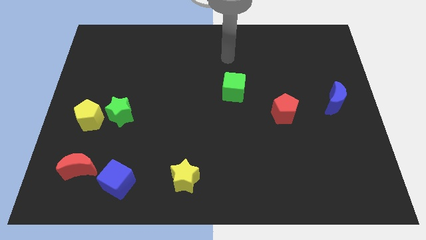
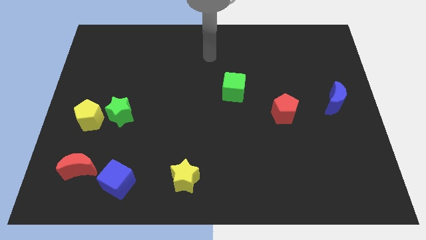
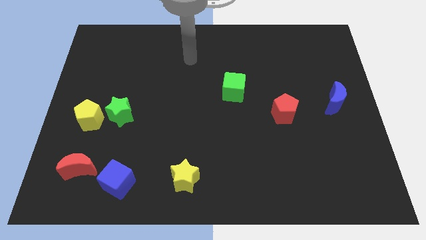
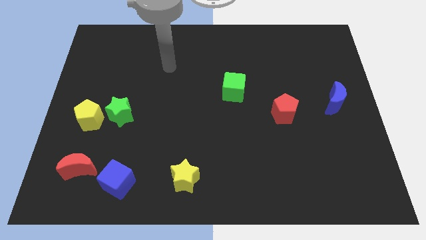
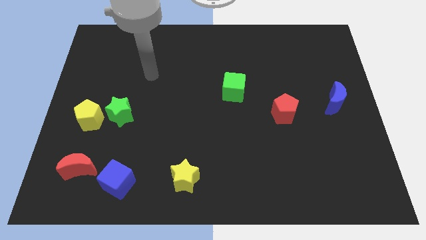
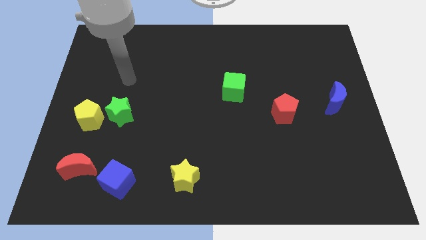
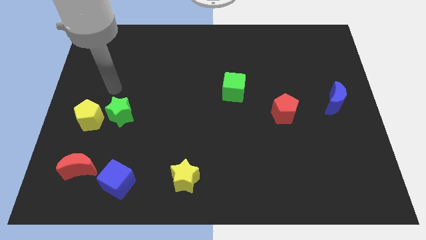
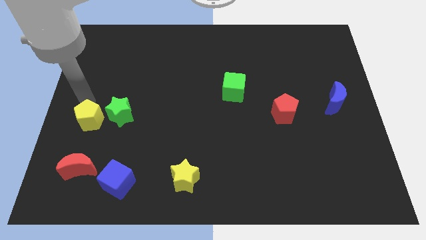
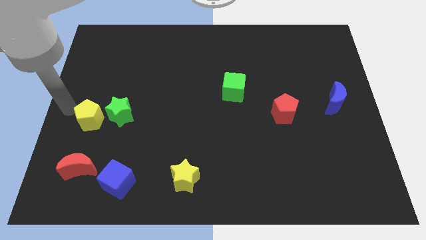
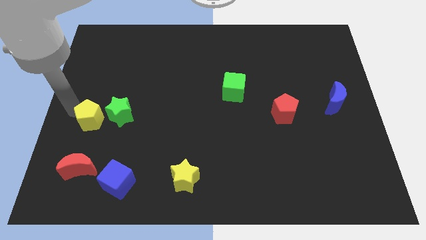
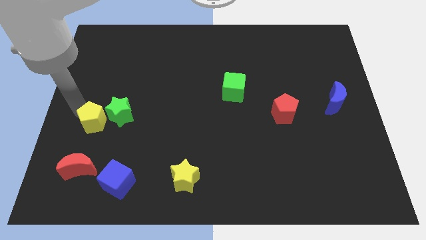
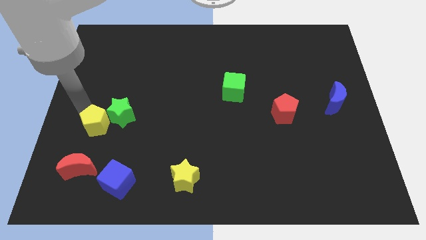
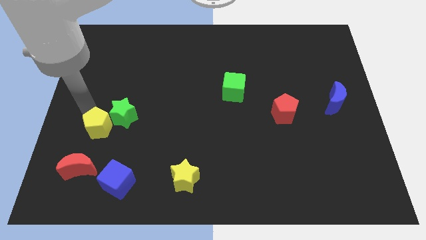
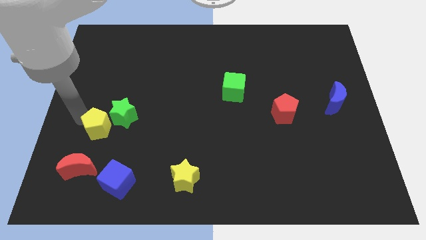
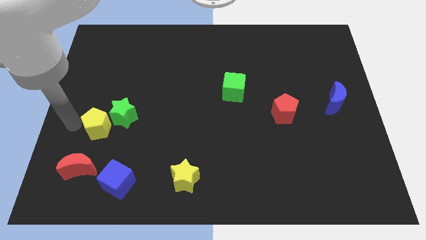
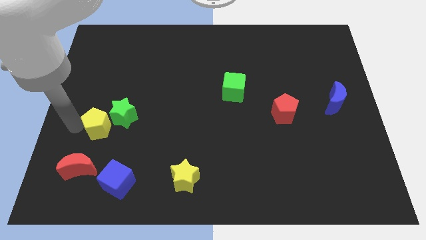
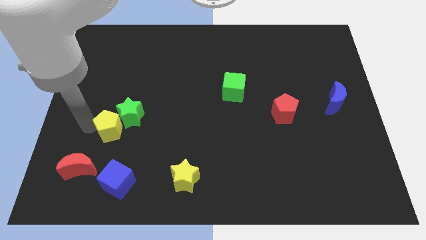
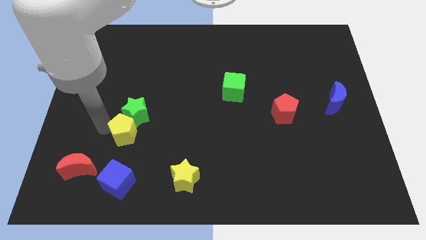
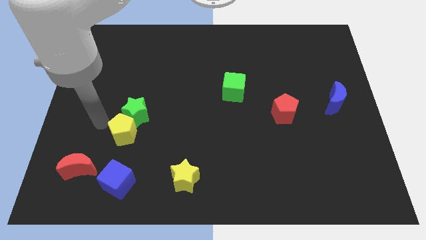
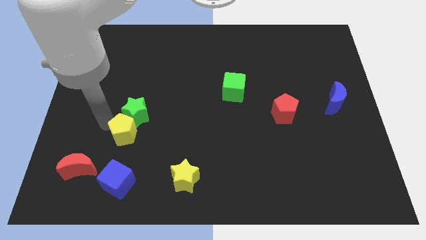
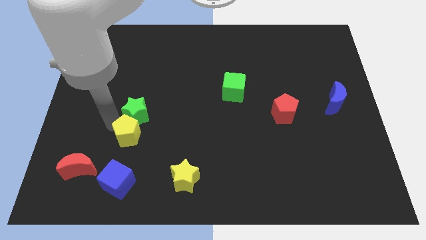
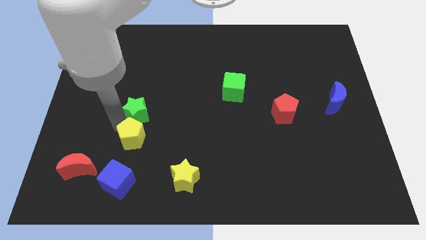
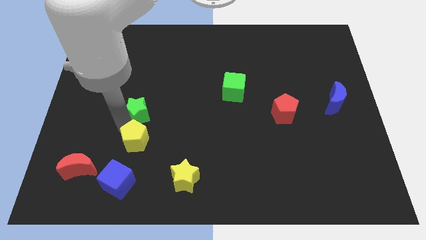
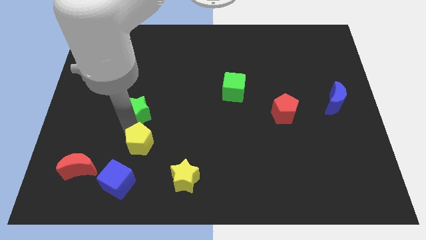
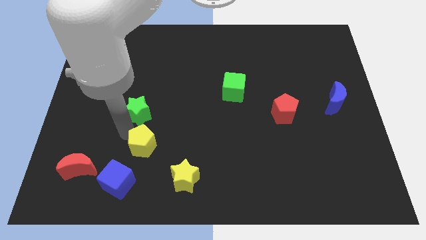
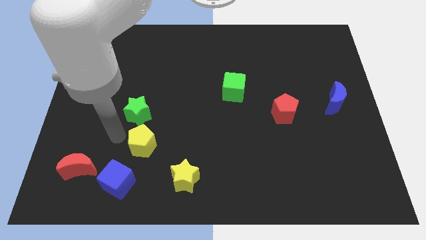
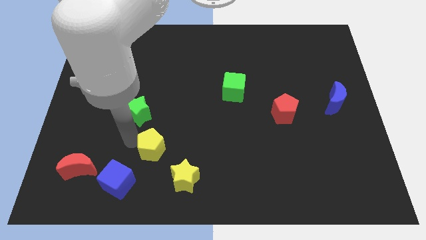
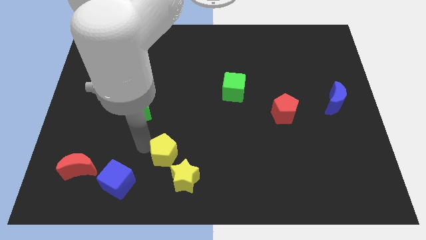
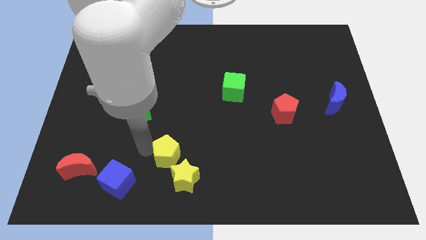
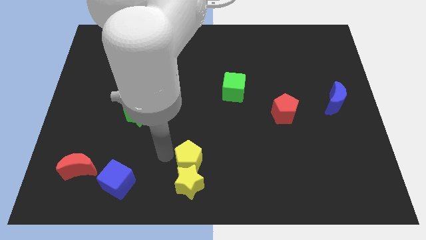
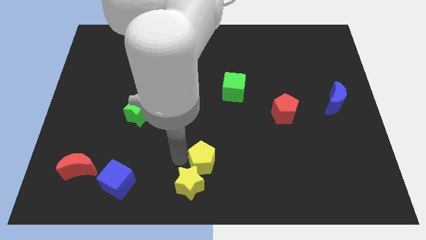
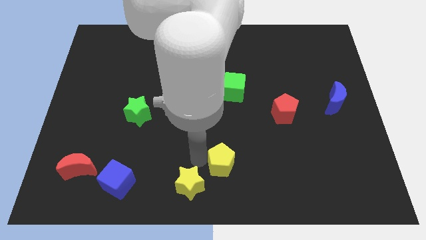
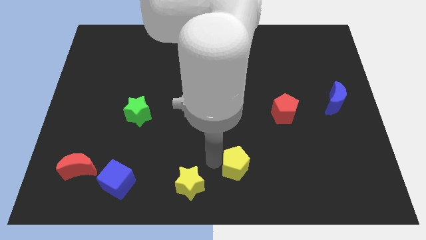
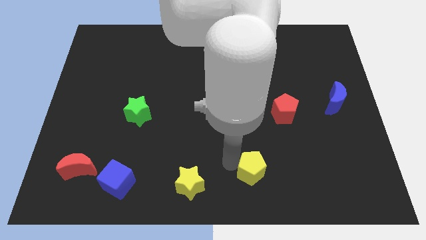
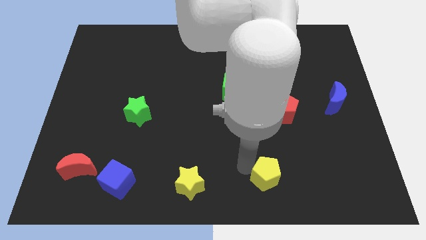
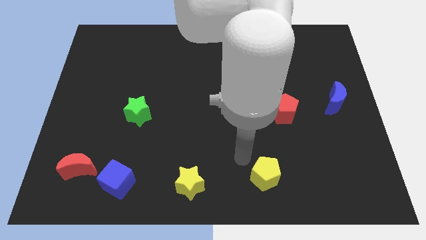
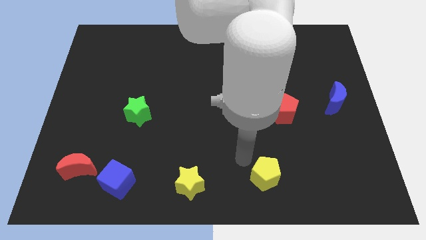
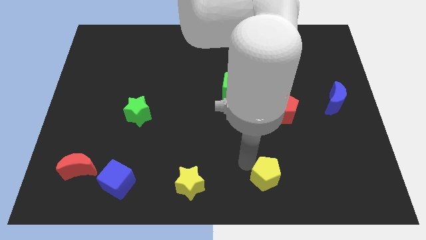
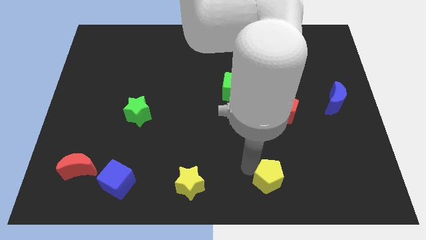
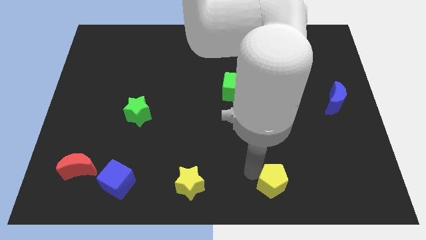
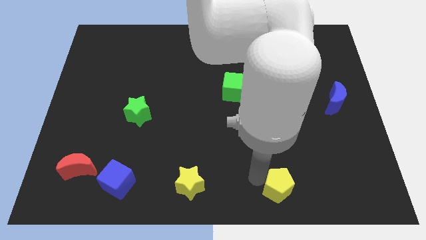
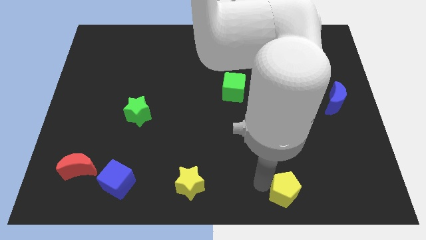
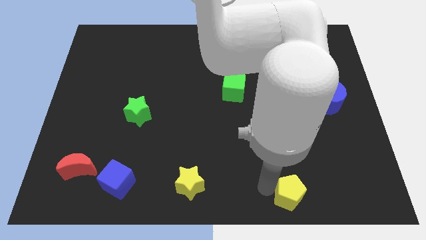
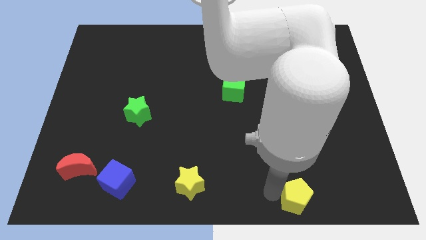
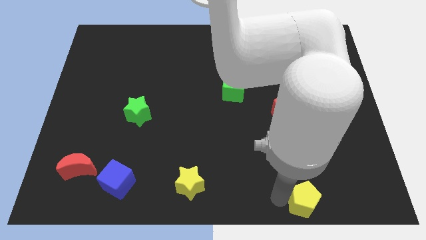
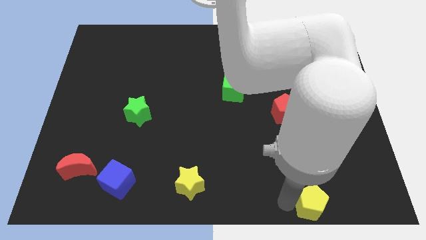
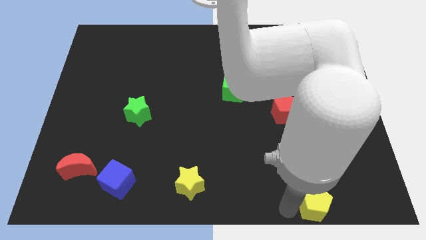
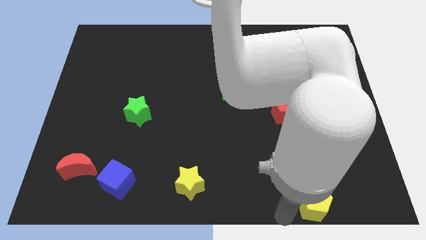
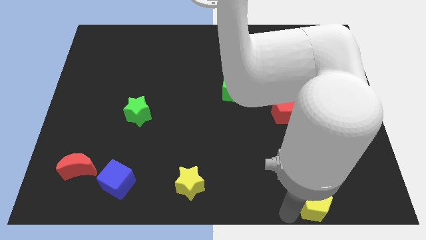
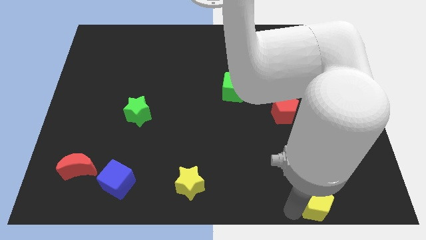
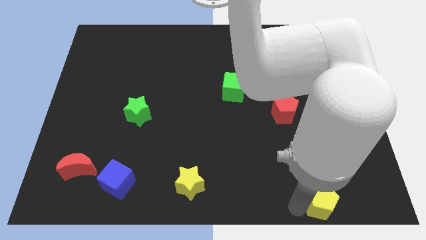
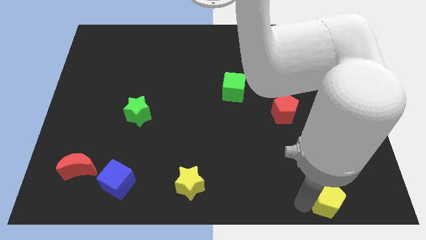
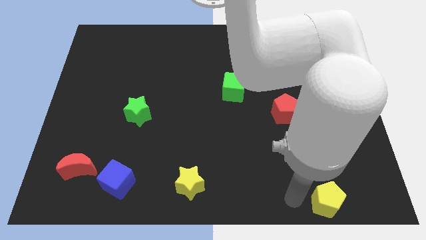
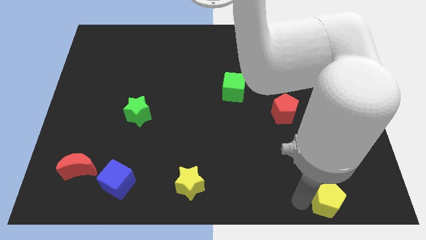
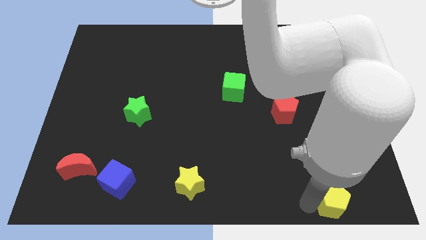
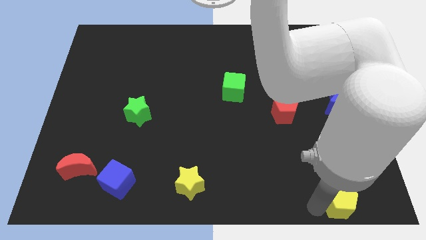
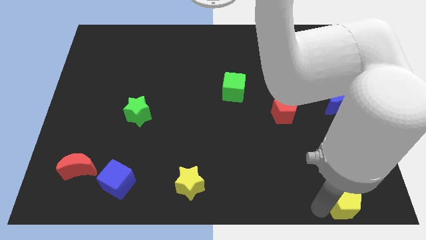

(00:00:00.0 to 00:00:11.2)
slide the yellow pentagon to the lower right corner

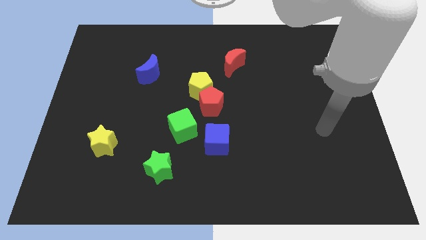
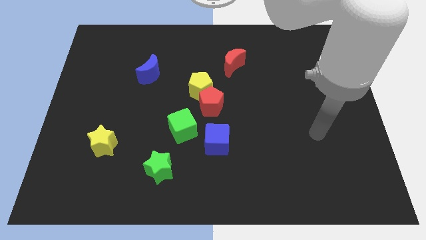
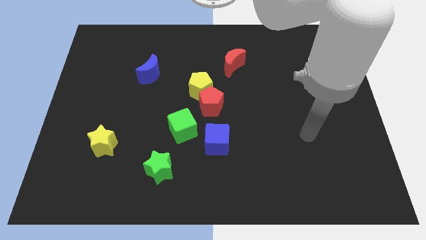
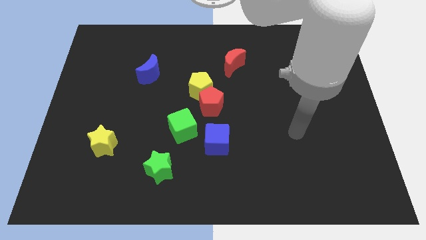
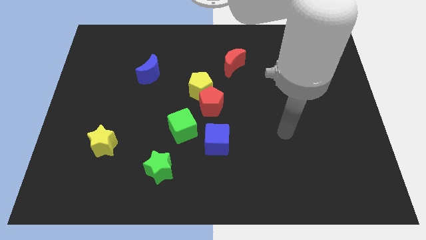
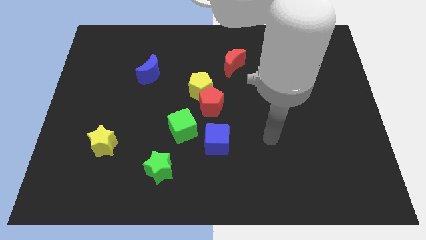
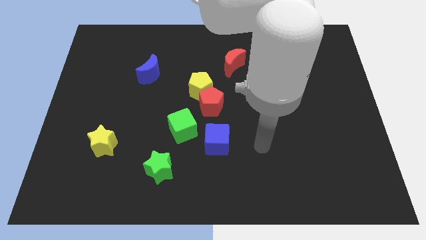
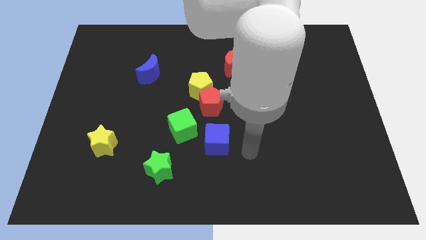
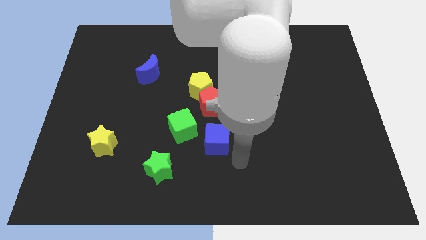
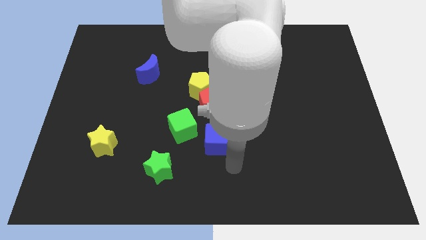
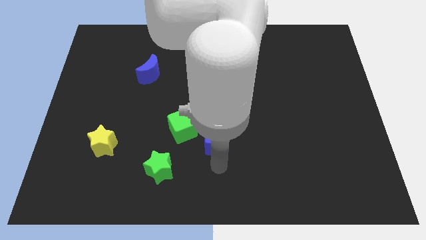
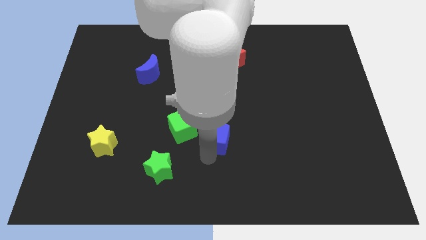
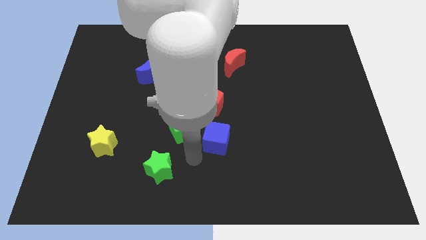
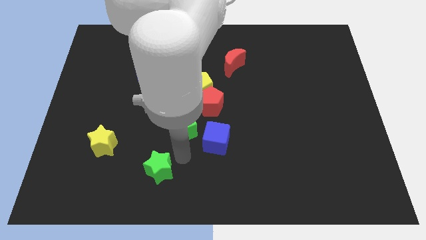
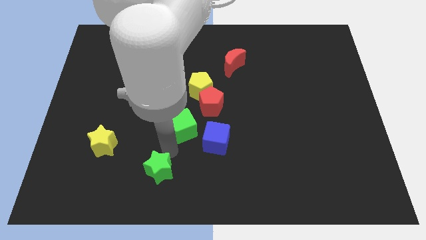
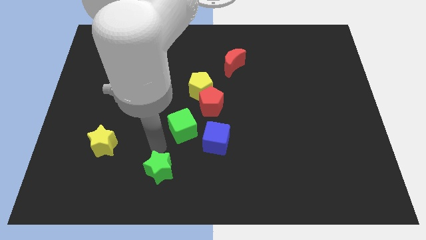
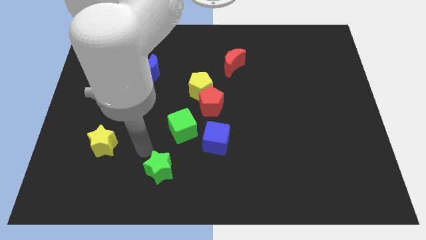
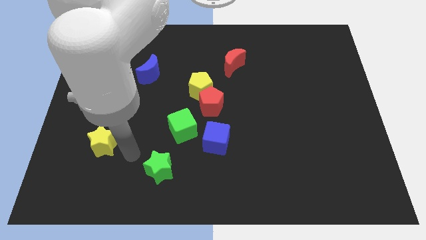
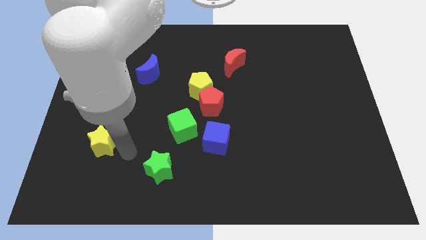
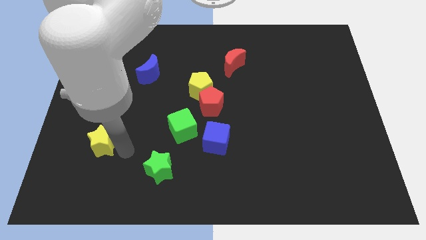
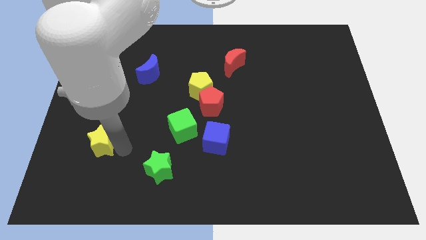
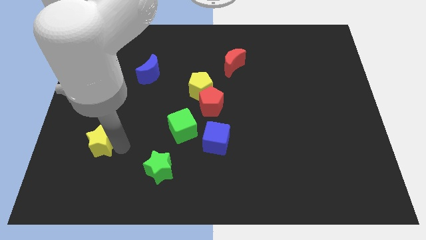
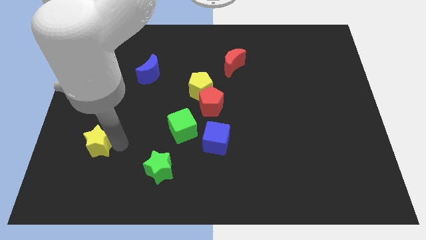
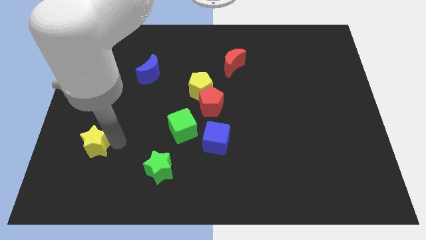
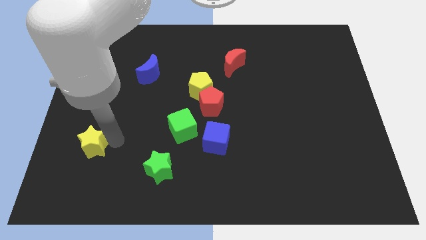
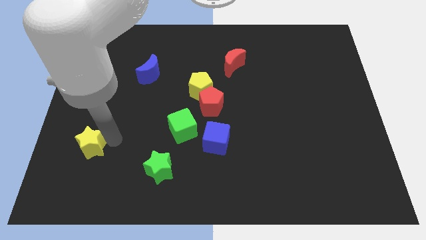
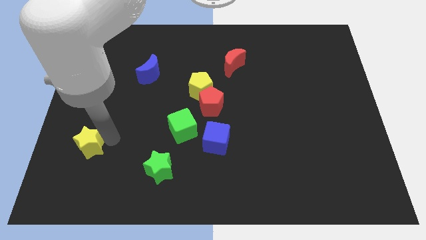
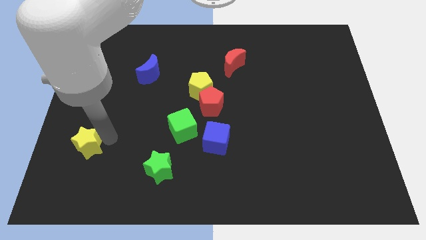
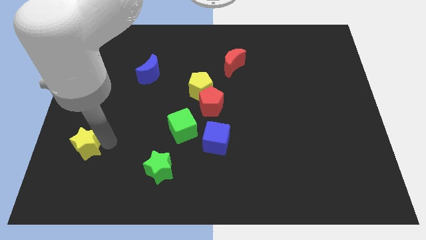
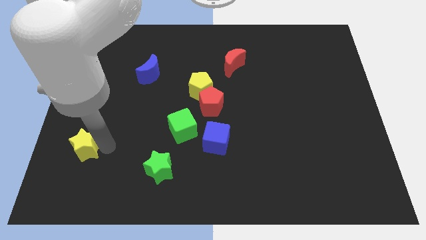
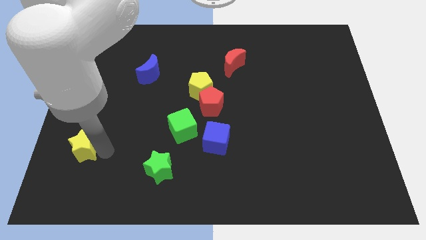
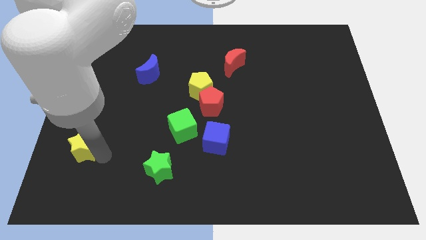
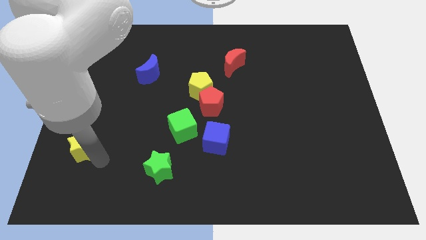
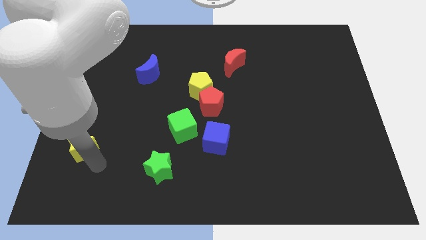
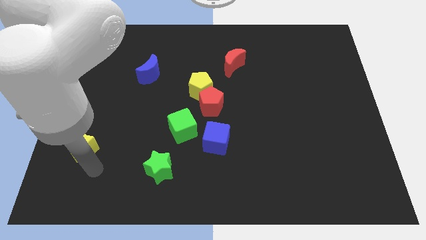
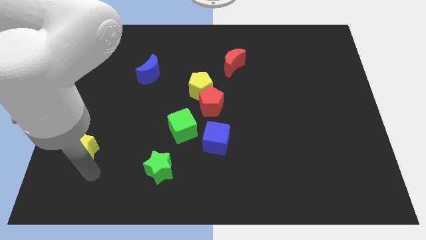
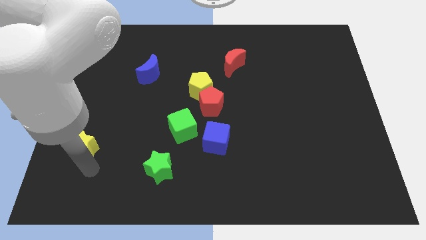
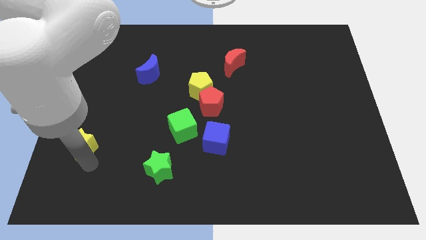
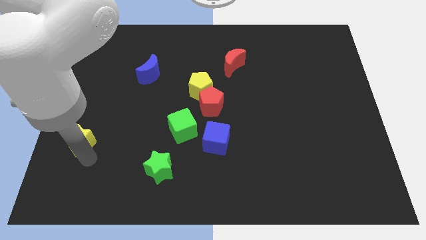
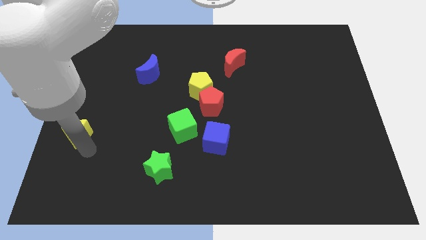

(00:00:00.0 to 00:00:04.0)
slide the yellow star to the left side of the board
